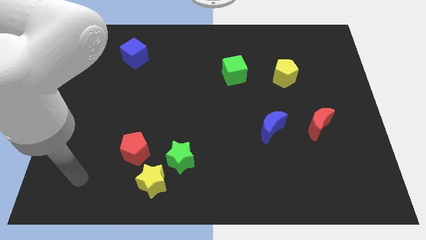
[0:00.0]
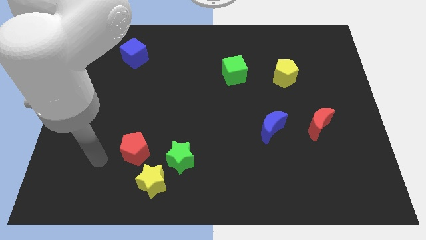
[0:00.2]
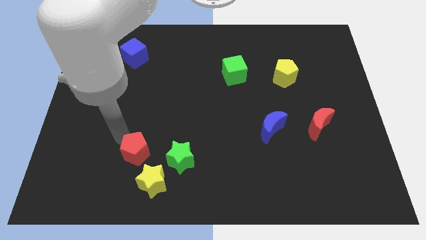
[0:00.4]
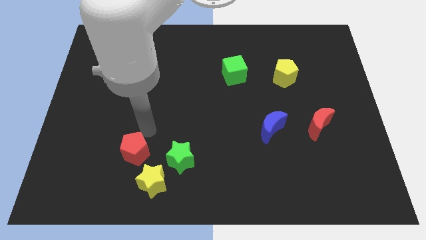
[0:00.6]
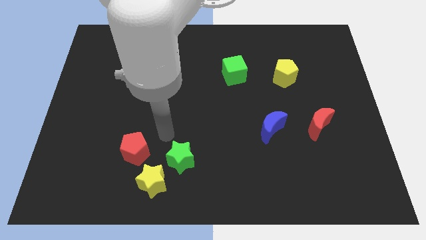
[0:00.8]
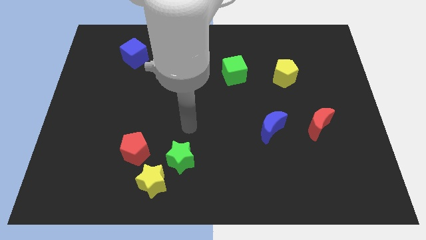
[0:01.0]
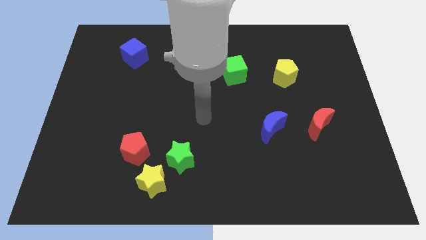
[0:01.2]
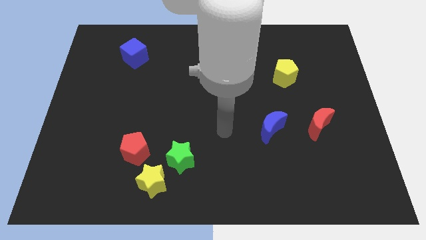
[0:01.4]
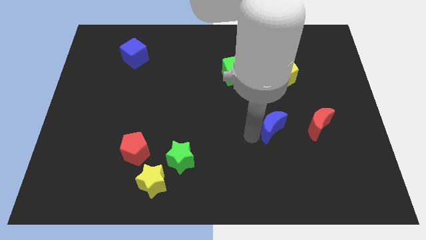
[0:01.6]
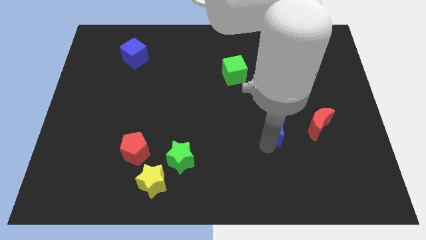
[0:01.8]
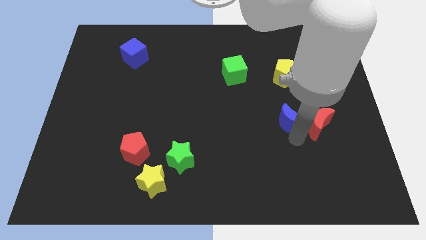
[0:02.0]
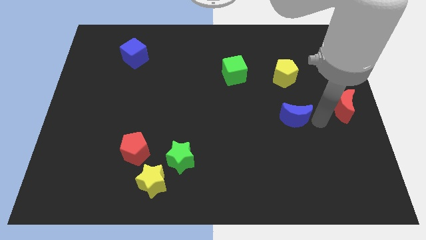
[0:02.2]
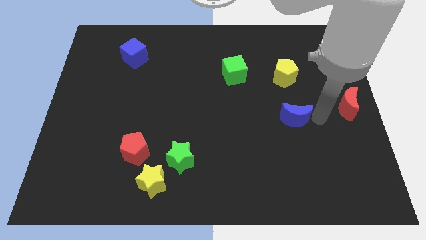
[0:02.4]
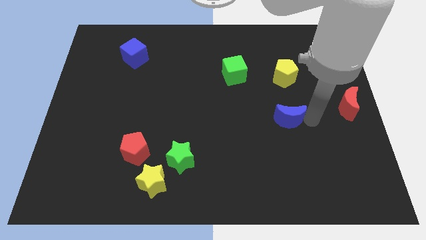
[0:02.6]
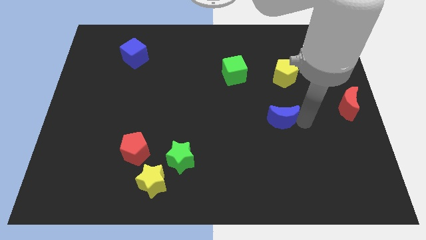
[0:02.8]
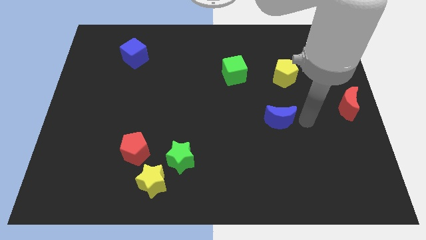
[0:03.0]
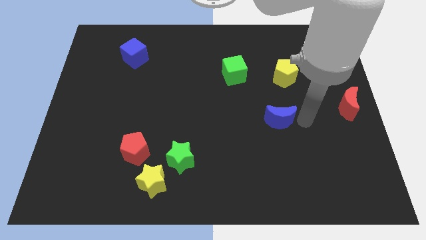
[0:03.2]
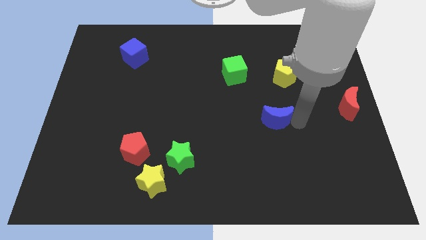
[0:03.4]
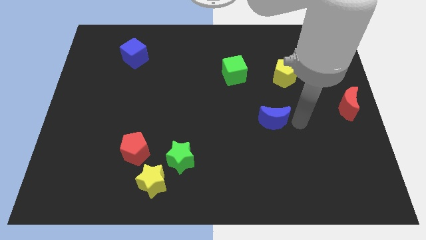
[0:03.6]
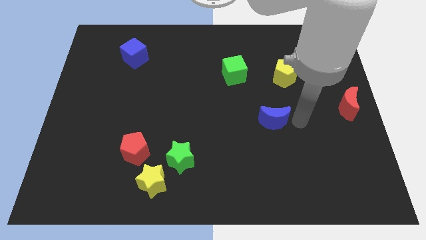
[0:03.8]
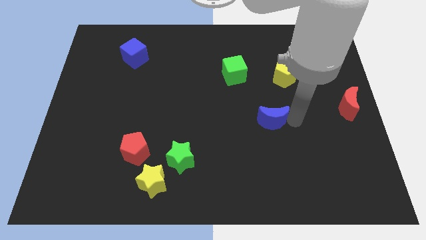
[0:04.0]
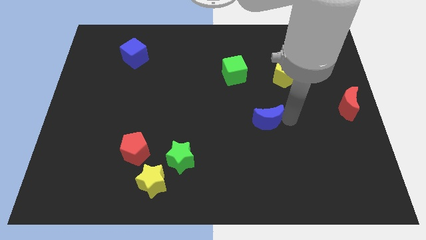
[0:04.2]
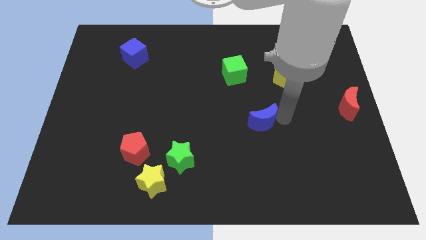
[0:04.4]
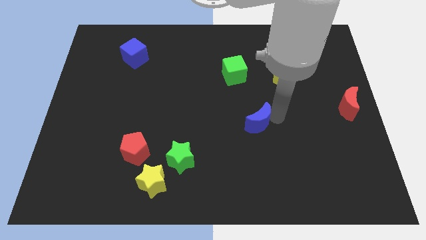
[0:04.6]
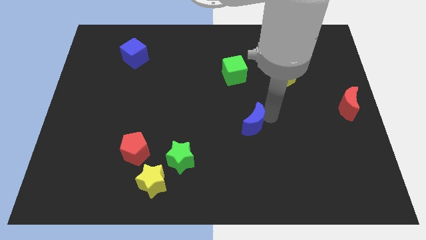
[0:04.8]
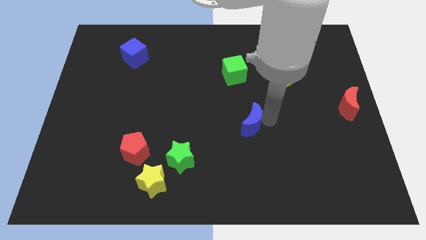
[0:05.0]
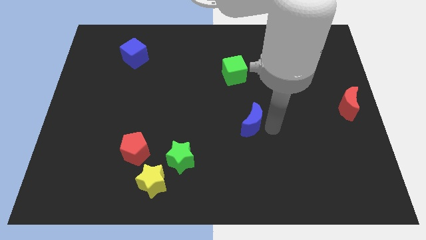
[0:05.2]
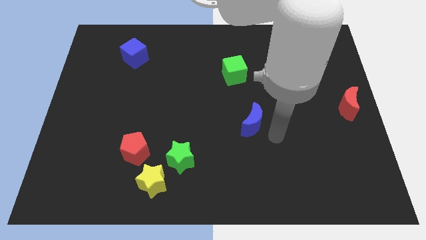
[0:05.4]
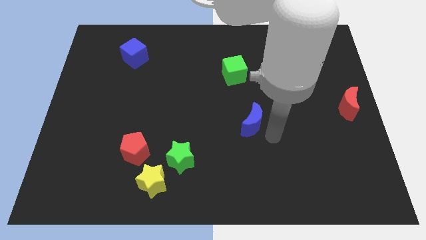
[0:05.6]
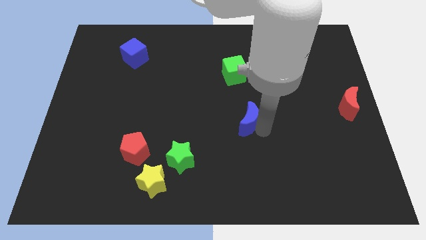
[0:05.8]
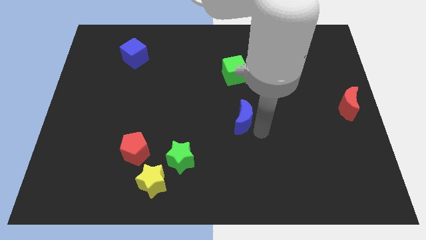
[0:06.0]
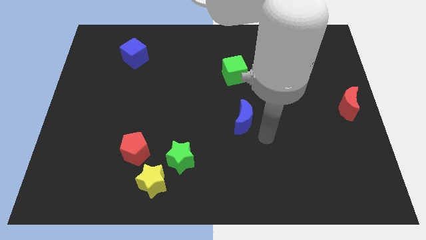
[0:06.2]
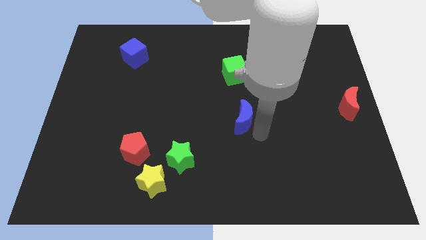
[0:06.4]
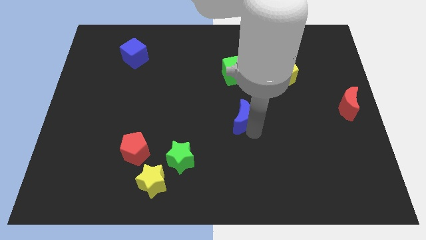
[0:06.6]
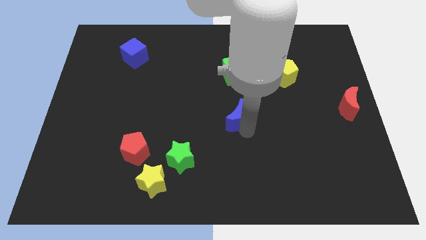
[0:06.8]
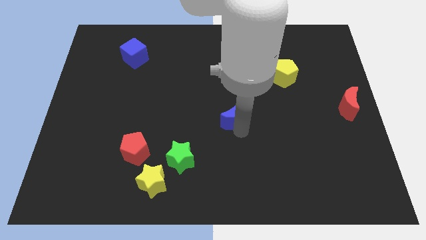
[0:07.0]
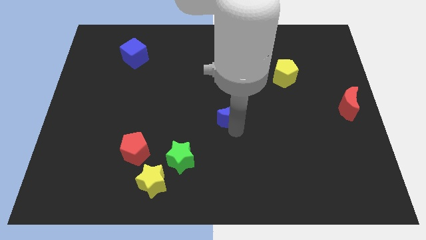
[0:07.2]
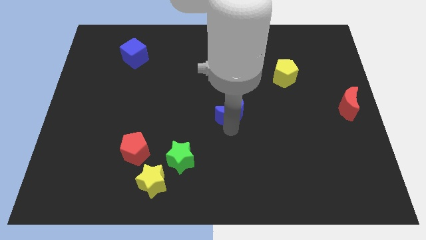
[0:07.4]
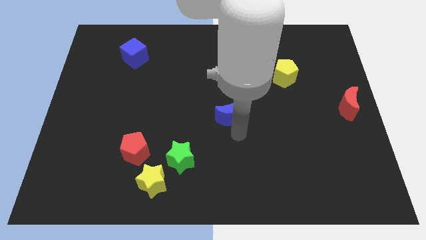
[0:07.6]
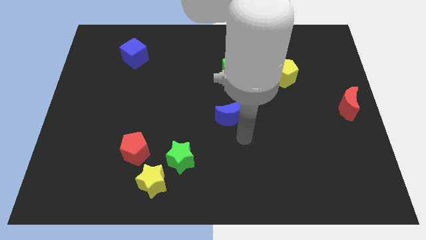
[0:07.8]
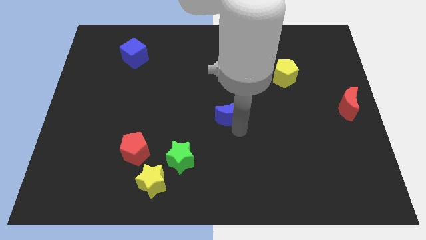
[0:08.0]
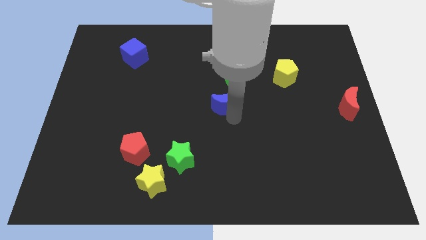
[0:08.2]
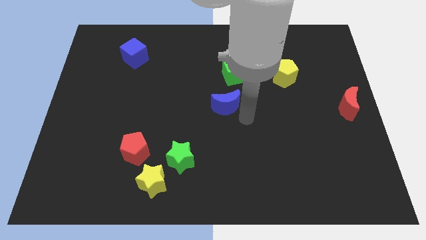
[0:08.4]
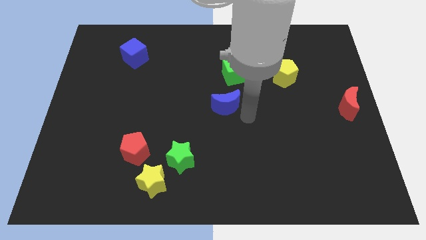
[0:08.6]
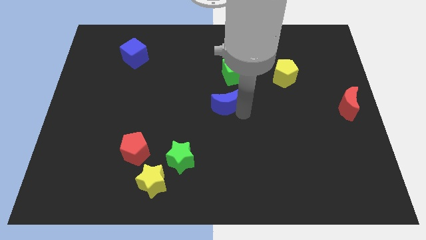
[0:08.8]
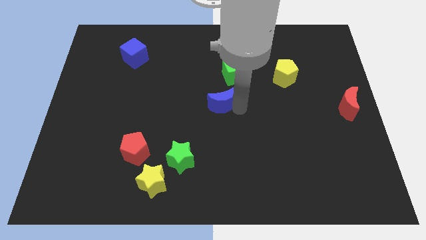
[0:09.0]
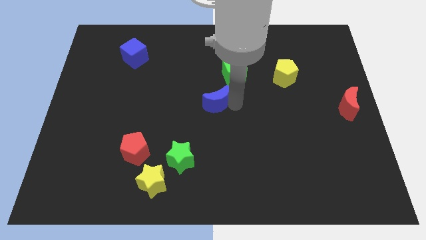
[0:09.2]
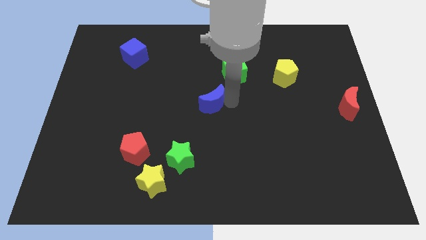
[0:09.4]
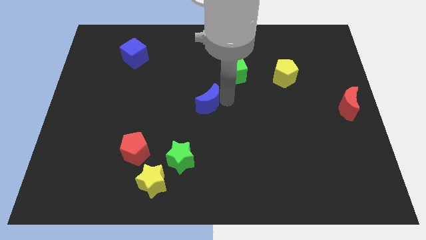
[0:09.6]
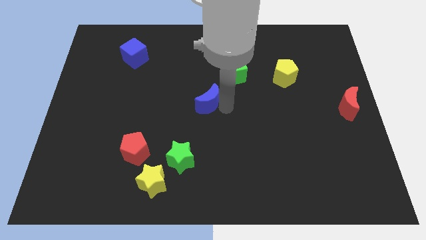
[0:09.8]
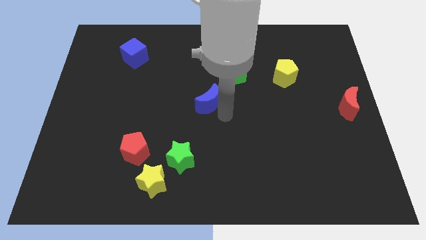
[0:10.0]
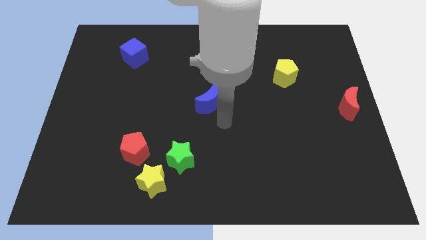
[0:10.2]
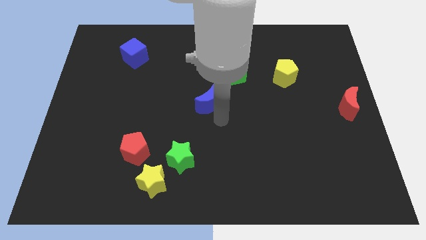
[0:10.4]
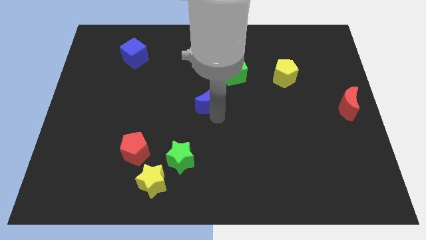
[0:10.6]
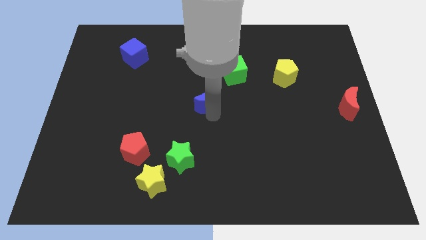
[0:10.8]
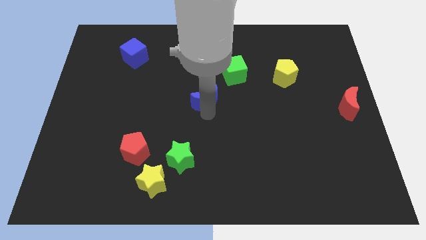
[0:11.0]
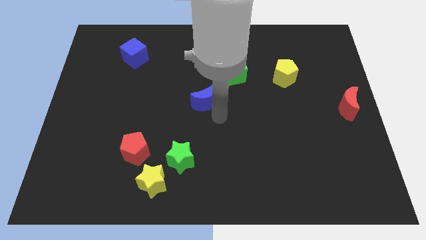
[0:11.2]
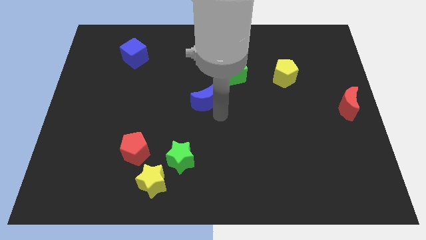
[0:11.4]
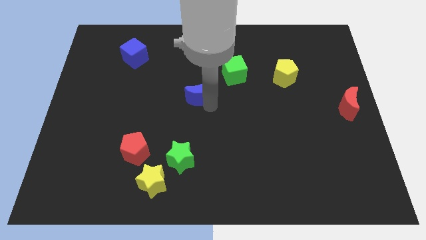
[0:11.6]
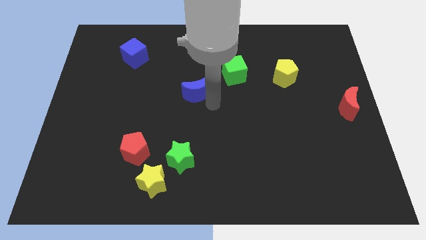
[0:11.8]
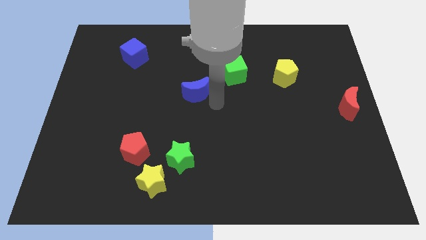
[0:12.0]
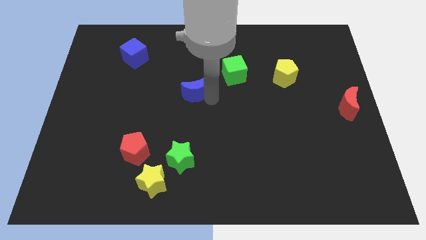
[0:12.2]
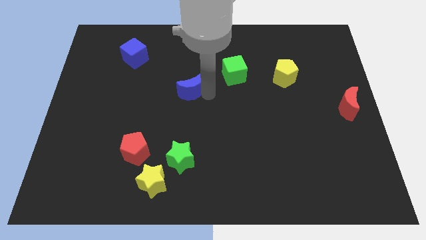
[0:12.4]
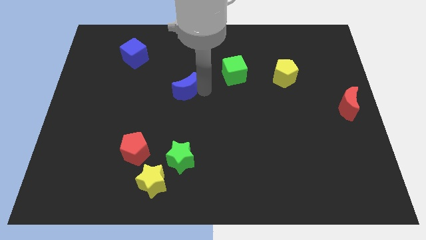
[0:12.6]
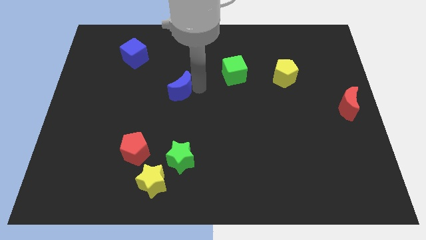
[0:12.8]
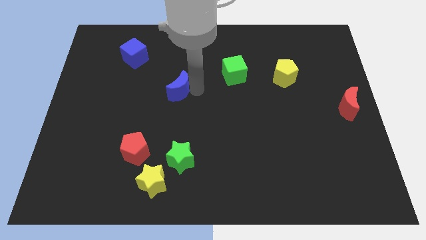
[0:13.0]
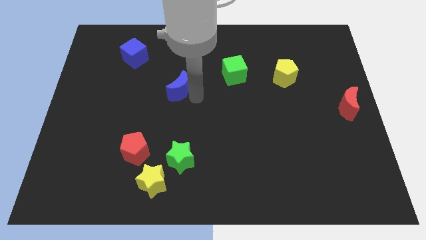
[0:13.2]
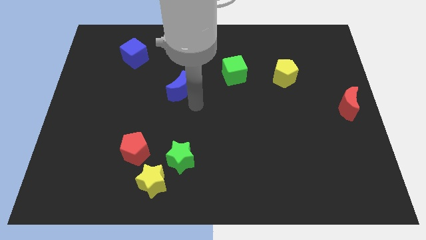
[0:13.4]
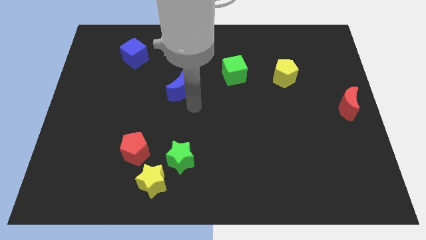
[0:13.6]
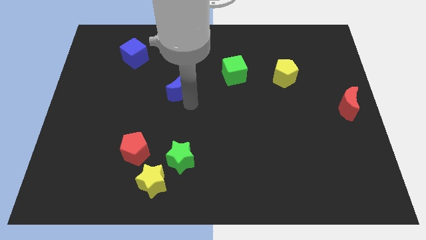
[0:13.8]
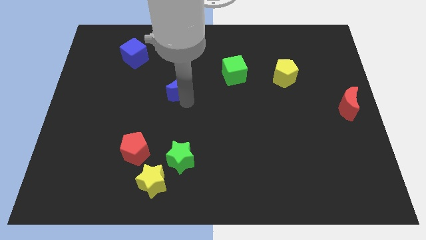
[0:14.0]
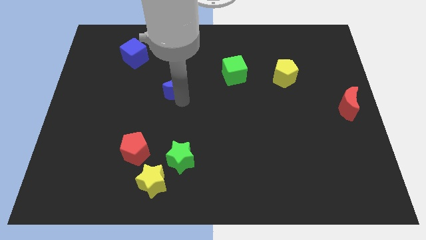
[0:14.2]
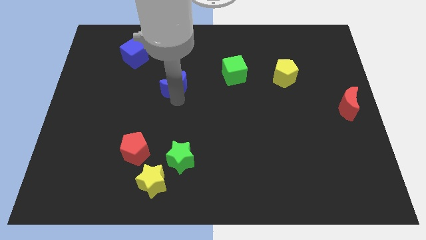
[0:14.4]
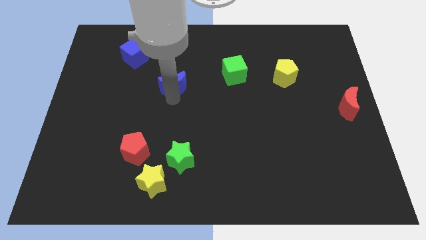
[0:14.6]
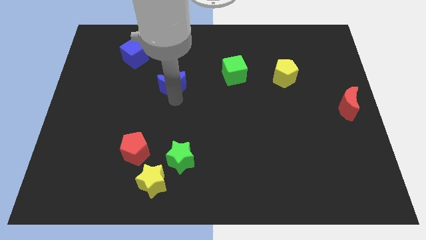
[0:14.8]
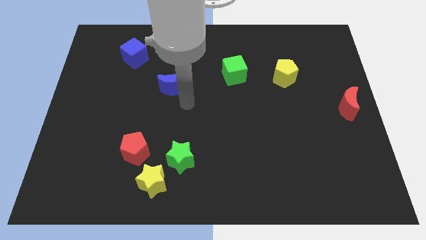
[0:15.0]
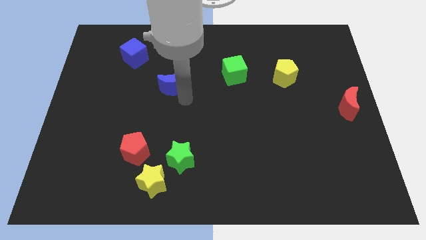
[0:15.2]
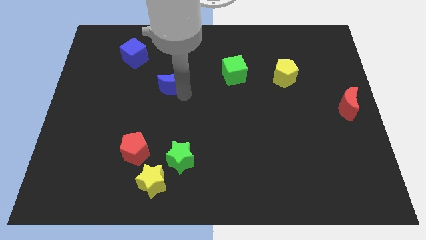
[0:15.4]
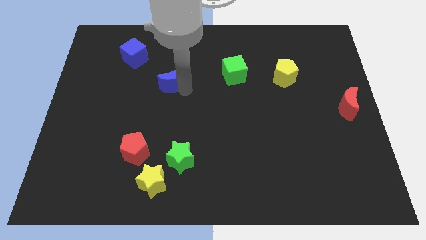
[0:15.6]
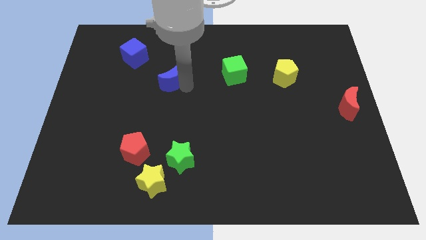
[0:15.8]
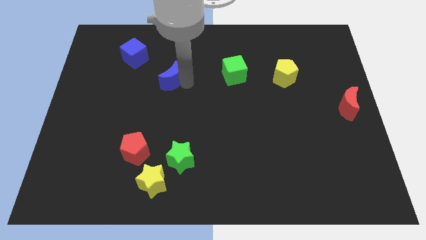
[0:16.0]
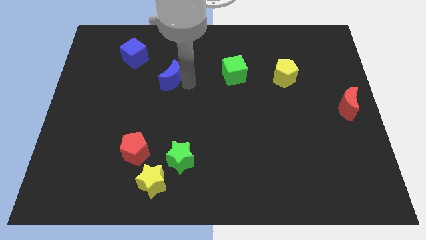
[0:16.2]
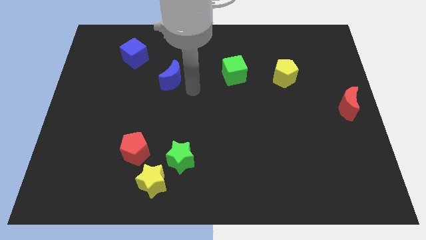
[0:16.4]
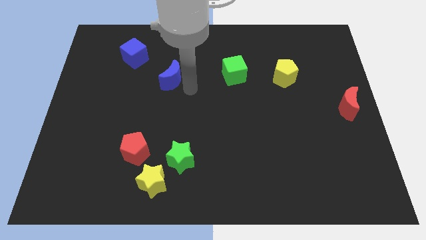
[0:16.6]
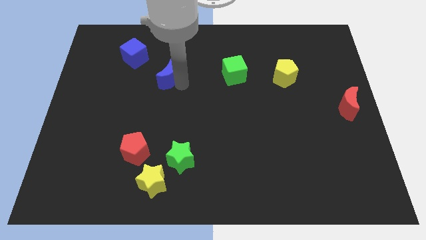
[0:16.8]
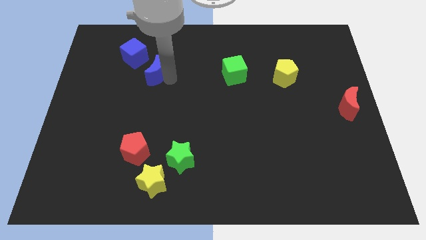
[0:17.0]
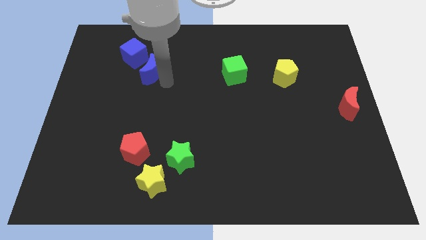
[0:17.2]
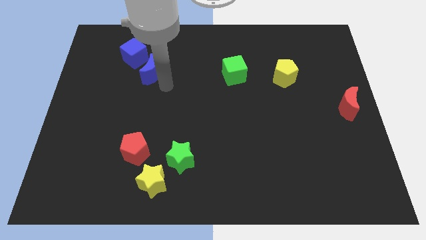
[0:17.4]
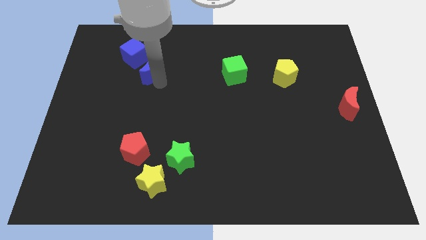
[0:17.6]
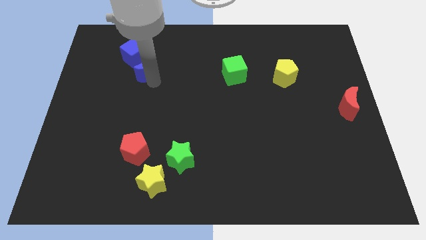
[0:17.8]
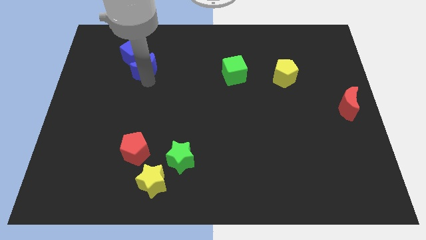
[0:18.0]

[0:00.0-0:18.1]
push the blue moon towards the blue cube
